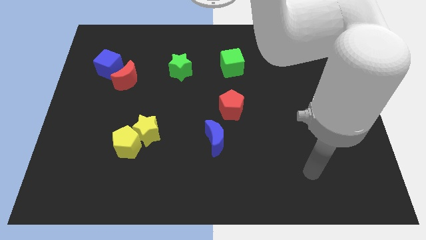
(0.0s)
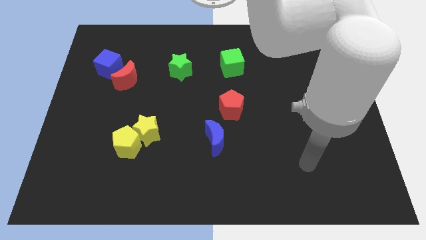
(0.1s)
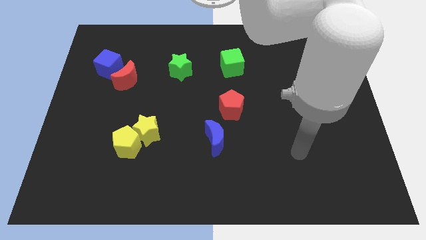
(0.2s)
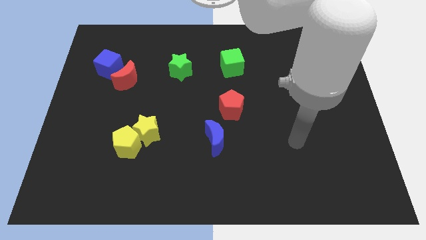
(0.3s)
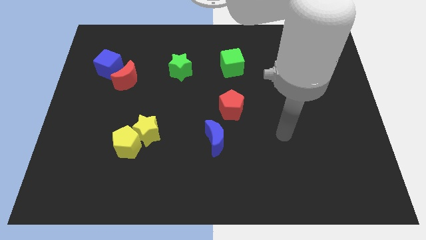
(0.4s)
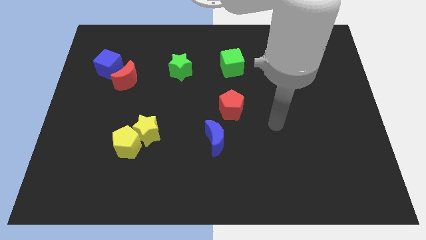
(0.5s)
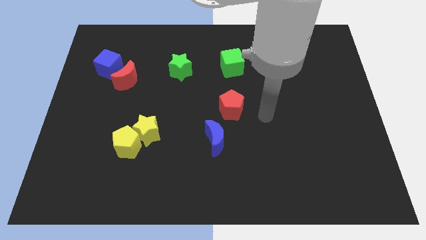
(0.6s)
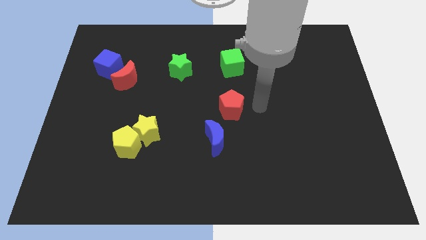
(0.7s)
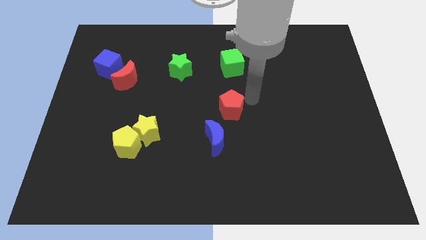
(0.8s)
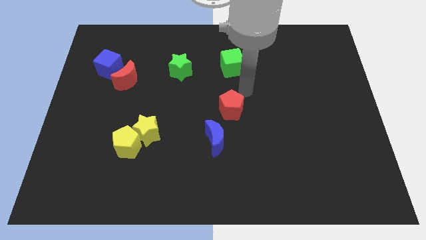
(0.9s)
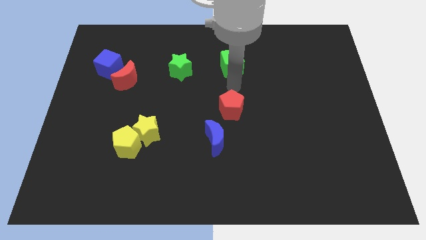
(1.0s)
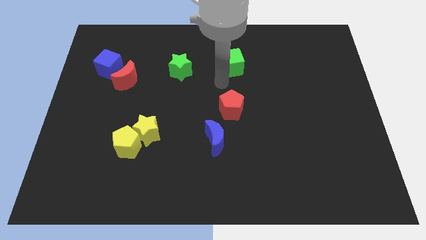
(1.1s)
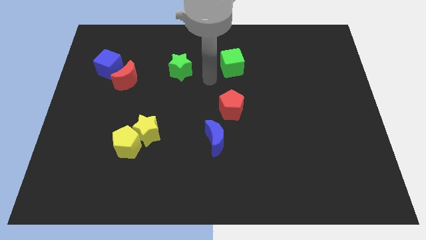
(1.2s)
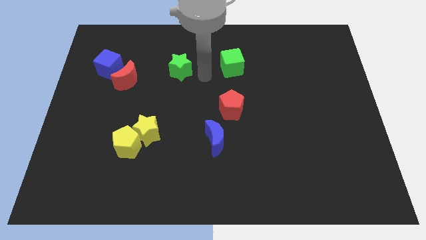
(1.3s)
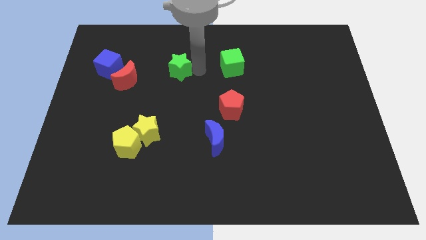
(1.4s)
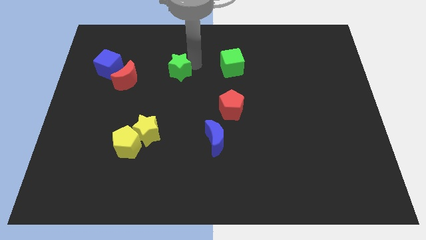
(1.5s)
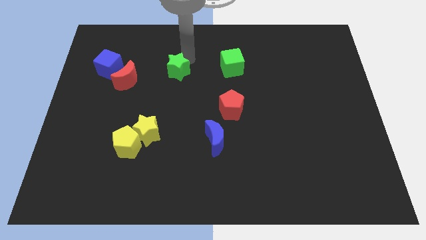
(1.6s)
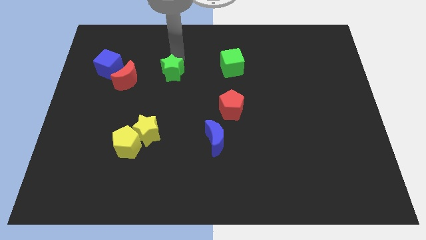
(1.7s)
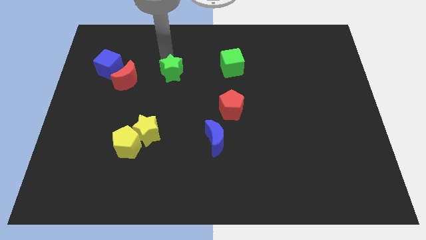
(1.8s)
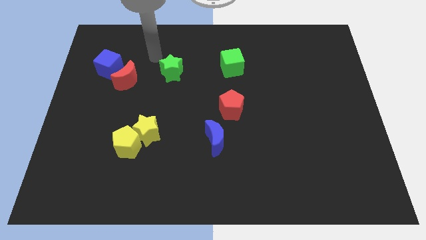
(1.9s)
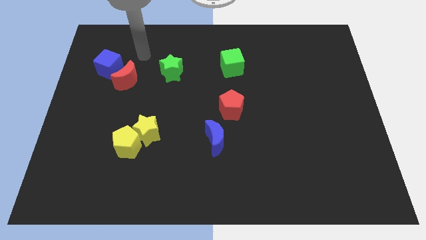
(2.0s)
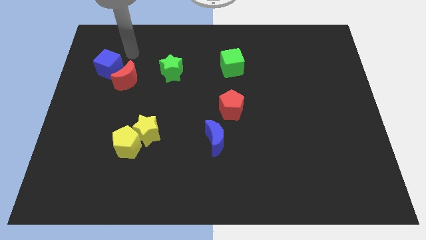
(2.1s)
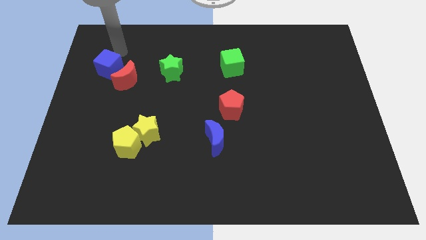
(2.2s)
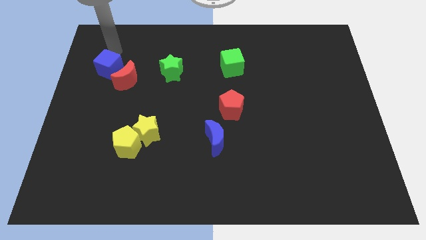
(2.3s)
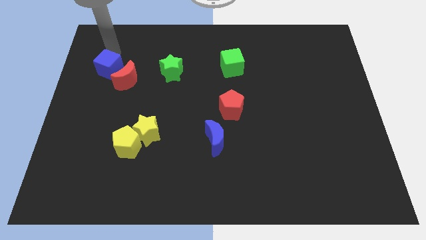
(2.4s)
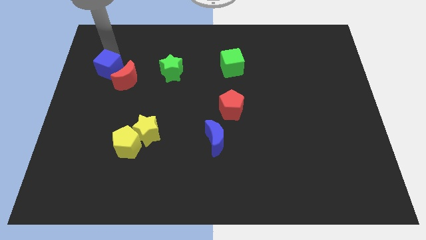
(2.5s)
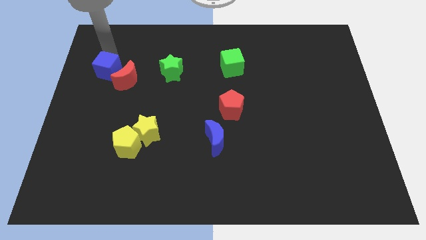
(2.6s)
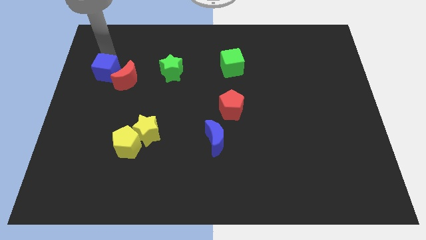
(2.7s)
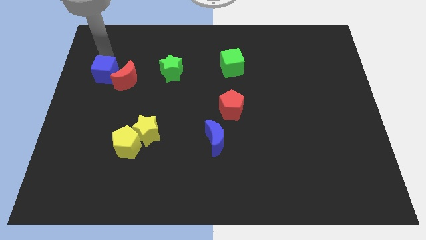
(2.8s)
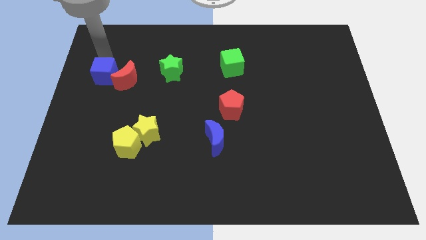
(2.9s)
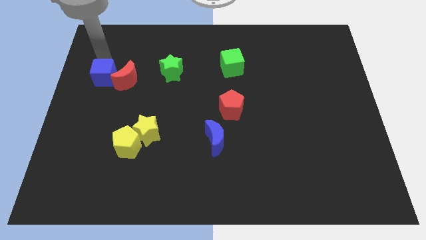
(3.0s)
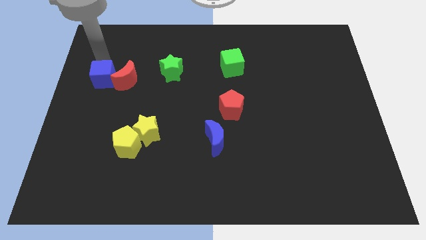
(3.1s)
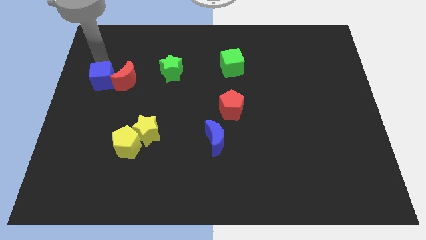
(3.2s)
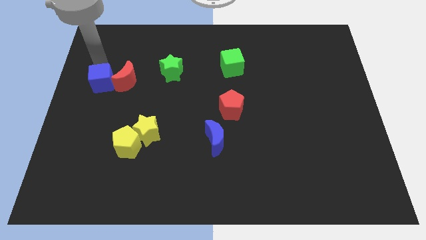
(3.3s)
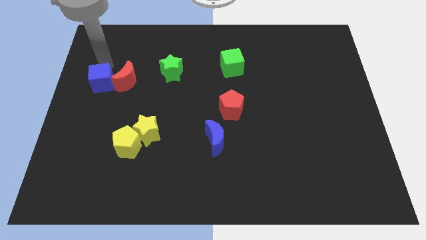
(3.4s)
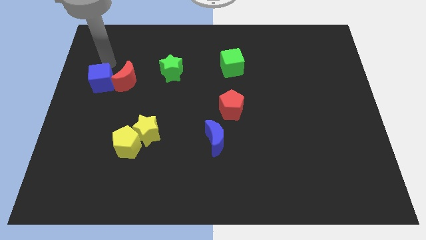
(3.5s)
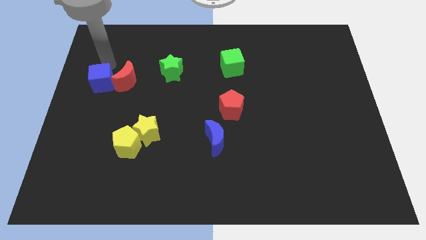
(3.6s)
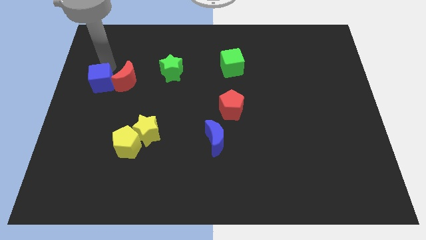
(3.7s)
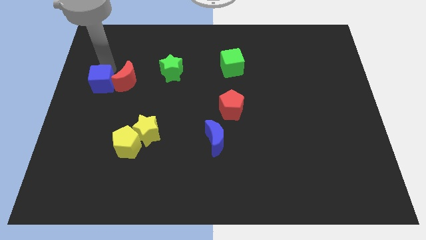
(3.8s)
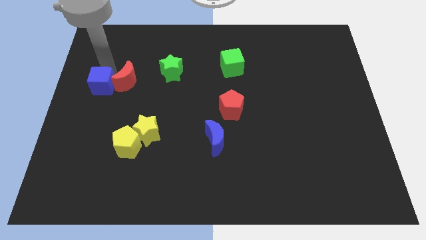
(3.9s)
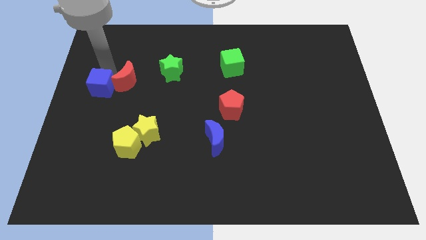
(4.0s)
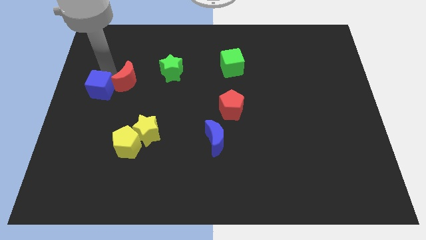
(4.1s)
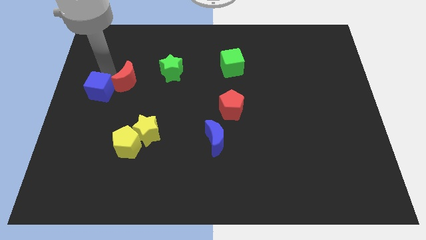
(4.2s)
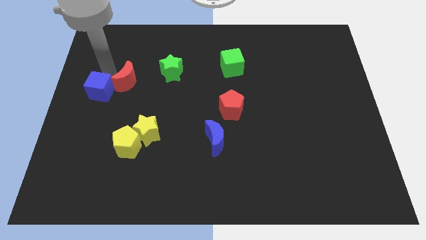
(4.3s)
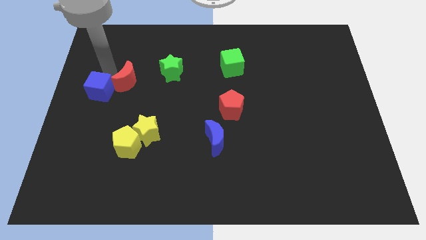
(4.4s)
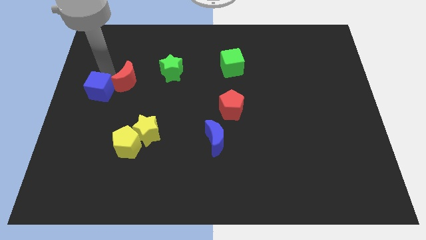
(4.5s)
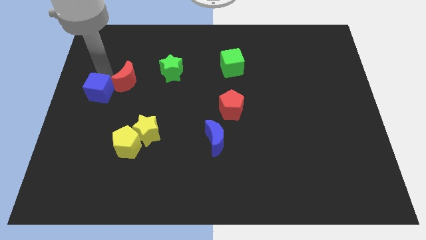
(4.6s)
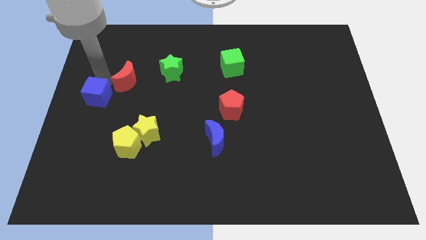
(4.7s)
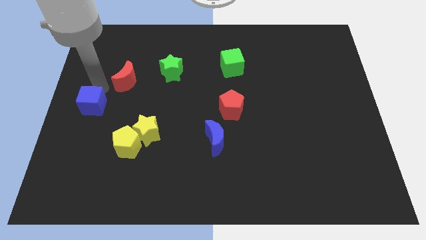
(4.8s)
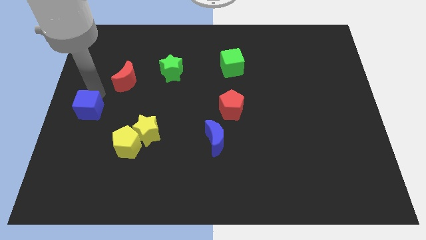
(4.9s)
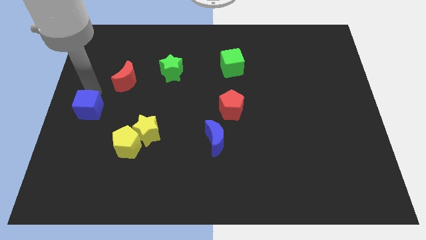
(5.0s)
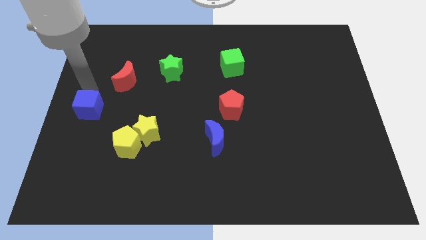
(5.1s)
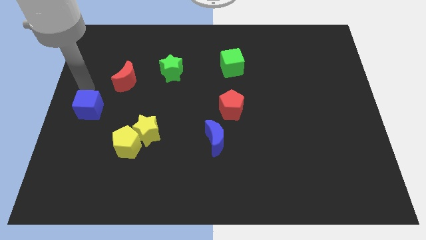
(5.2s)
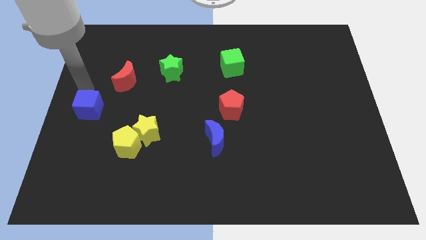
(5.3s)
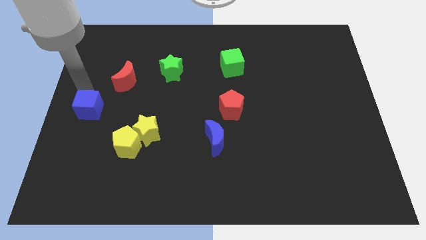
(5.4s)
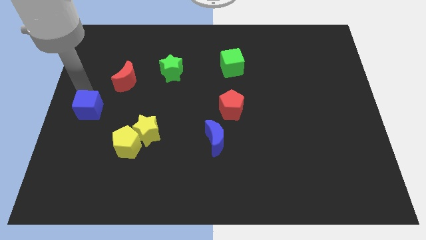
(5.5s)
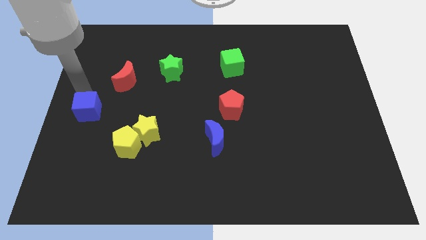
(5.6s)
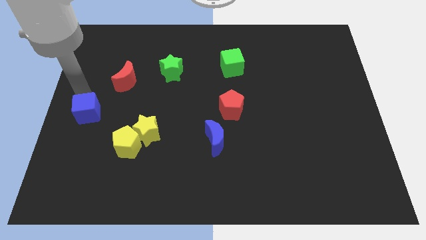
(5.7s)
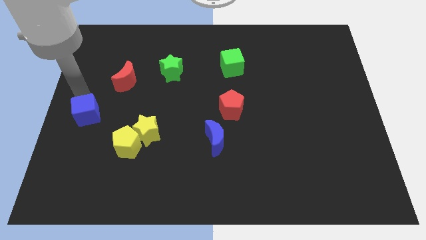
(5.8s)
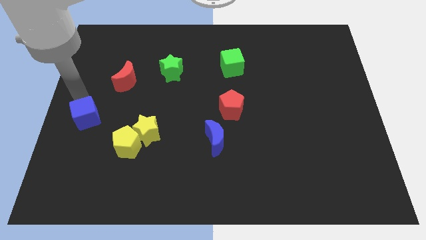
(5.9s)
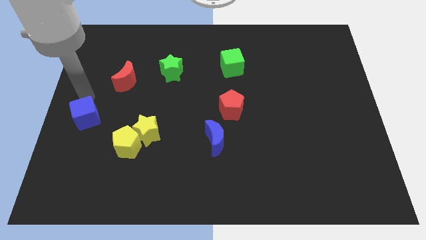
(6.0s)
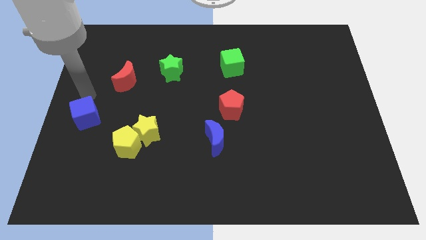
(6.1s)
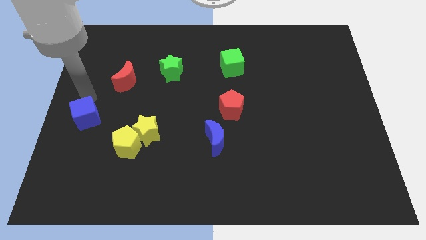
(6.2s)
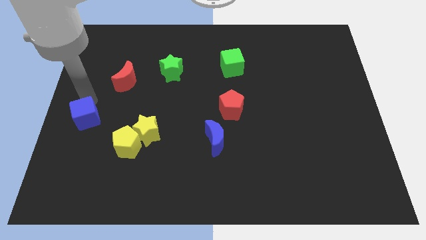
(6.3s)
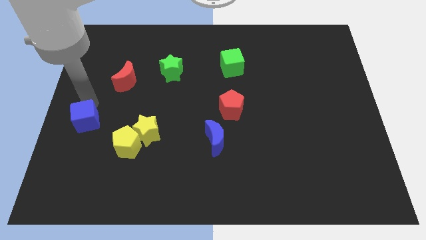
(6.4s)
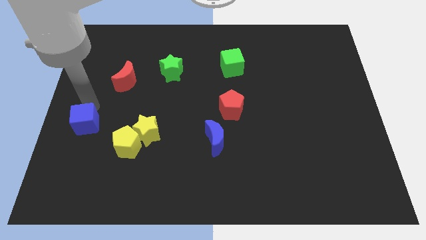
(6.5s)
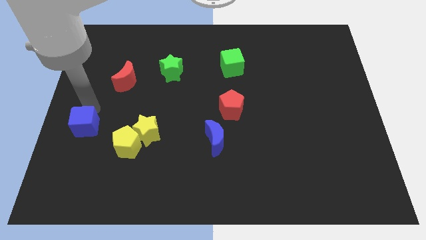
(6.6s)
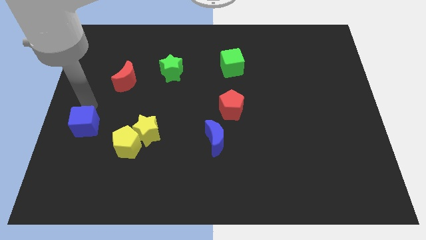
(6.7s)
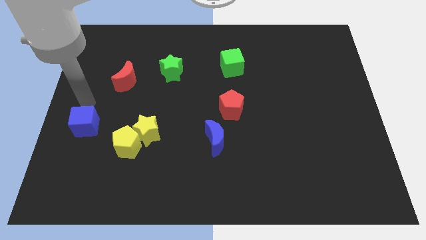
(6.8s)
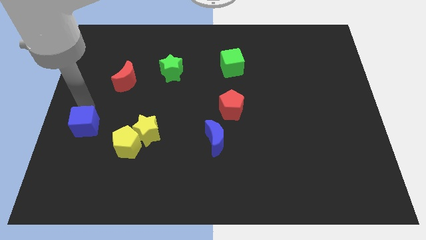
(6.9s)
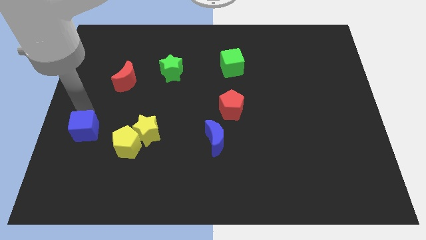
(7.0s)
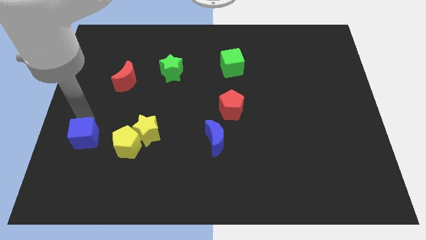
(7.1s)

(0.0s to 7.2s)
push the blue cube downwards

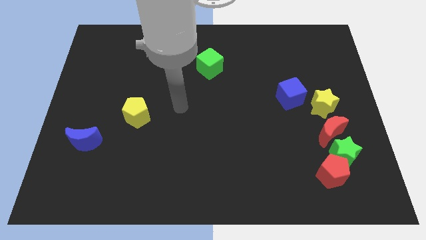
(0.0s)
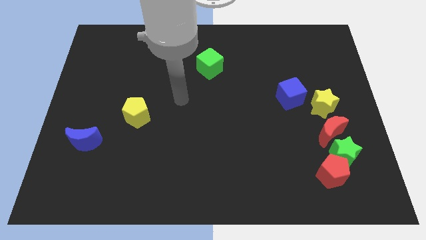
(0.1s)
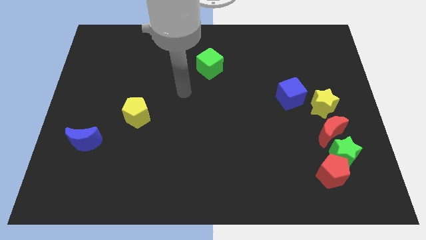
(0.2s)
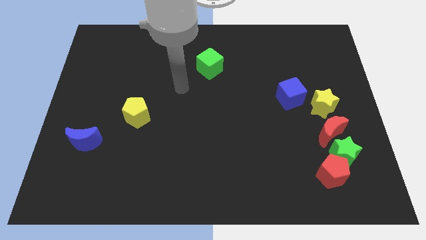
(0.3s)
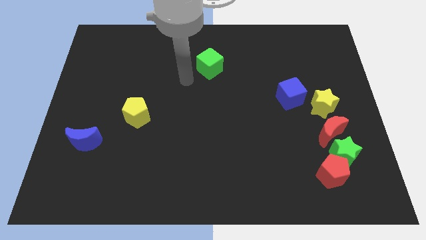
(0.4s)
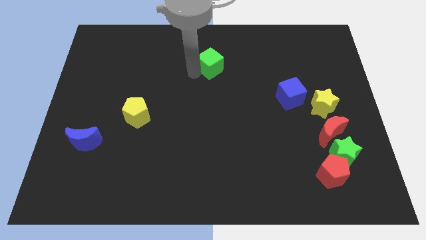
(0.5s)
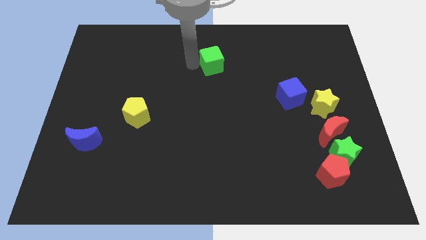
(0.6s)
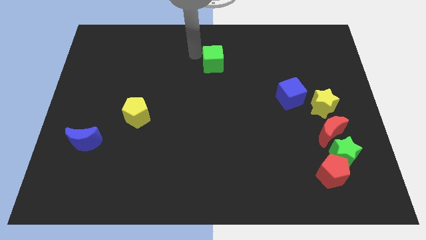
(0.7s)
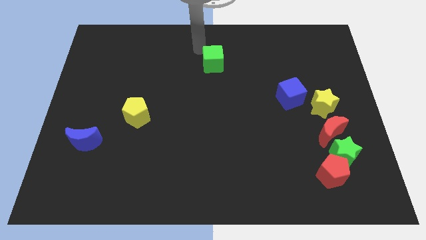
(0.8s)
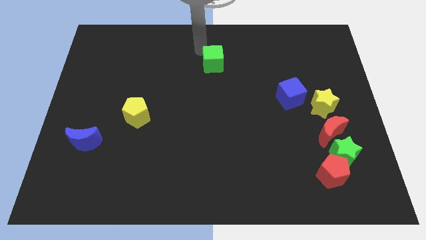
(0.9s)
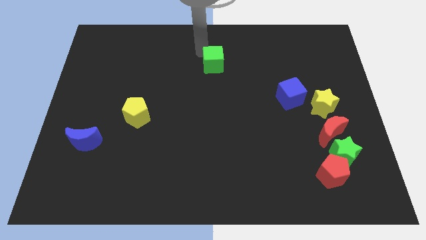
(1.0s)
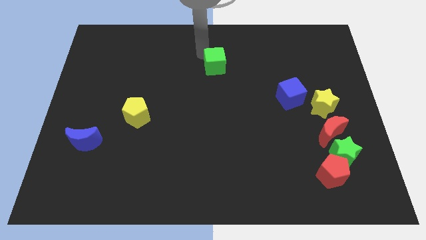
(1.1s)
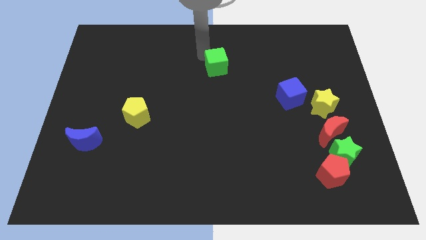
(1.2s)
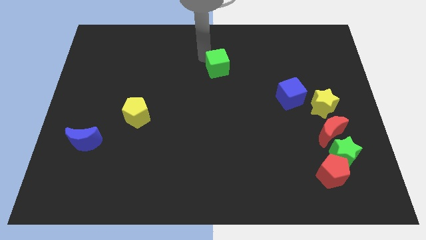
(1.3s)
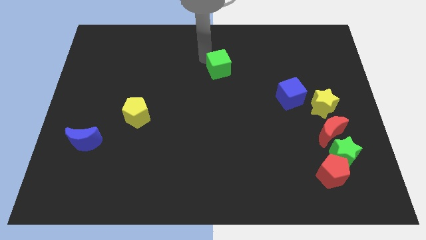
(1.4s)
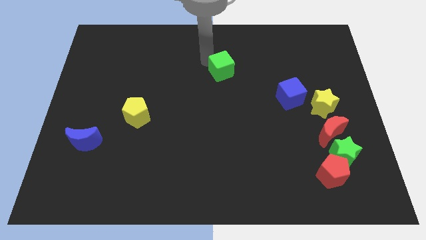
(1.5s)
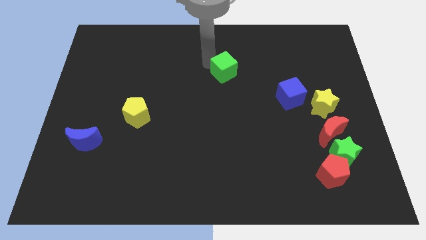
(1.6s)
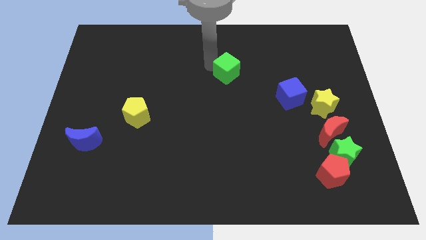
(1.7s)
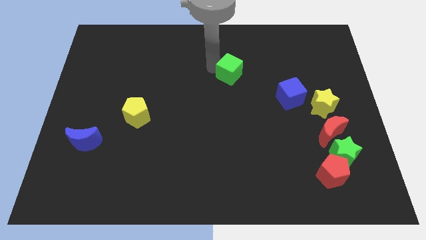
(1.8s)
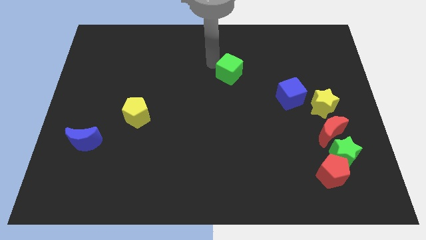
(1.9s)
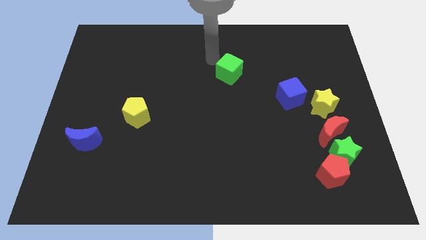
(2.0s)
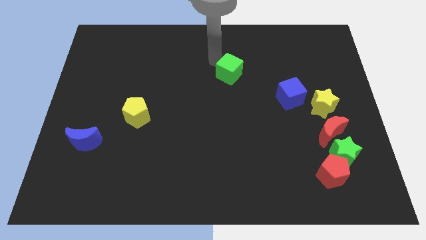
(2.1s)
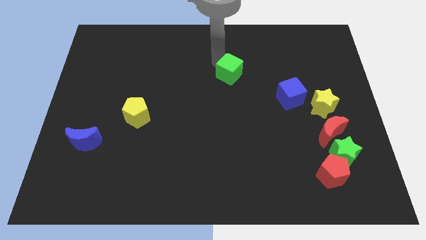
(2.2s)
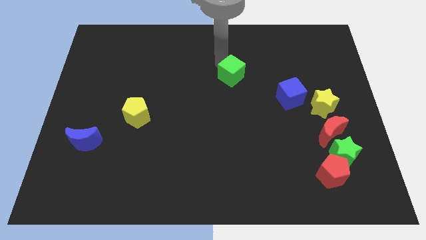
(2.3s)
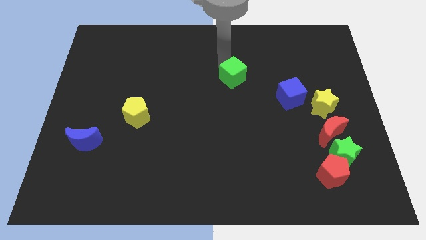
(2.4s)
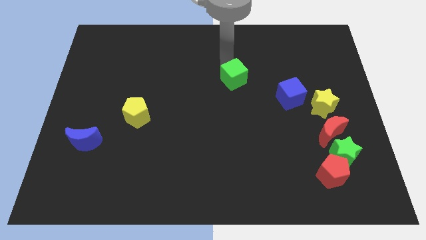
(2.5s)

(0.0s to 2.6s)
move the green cube somewhat downwards and to the right
